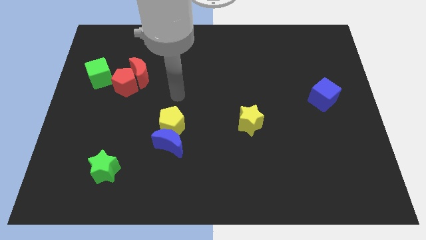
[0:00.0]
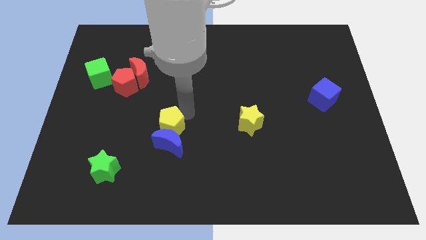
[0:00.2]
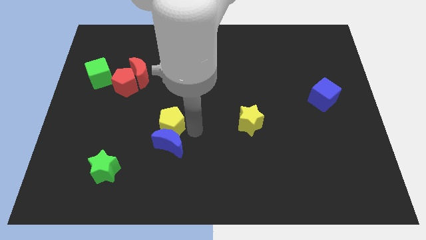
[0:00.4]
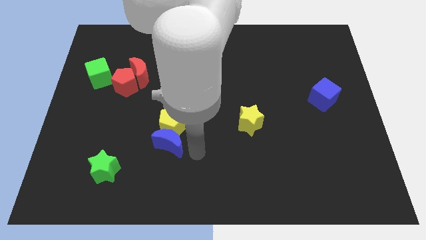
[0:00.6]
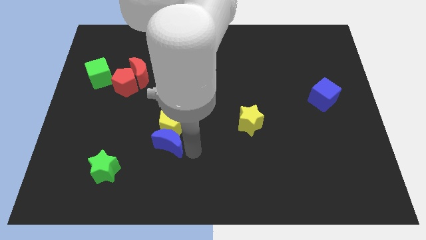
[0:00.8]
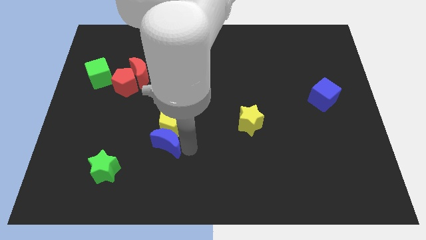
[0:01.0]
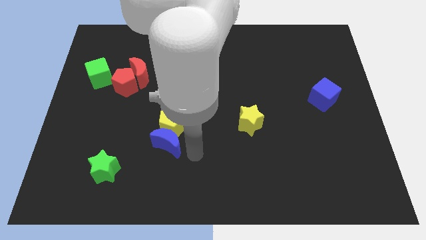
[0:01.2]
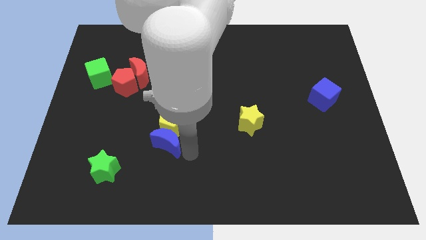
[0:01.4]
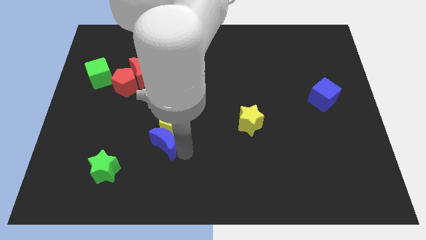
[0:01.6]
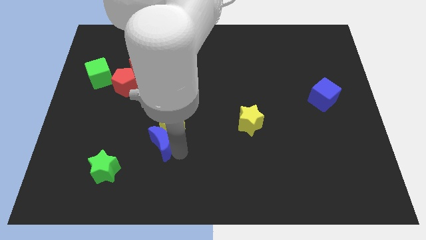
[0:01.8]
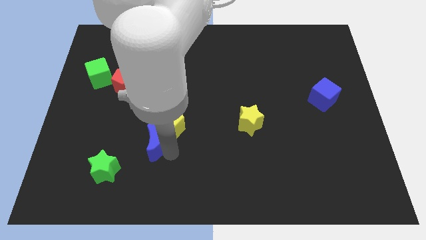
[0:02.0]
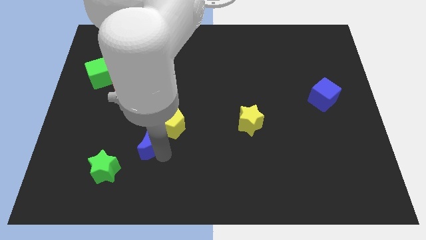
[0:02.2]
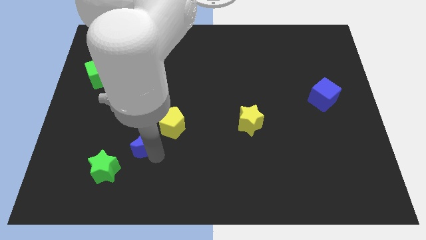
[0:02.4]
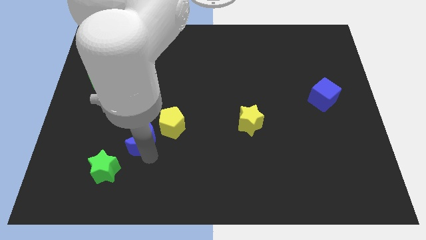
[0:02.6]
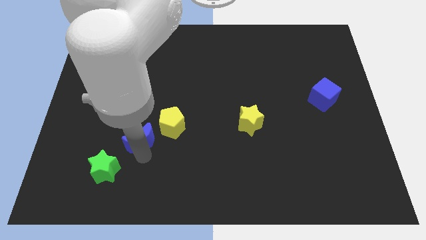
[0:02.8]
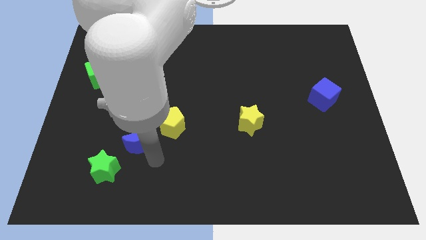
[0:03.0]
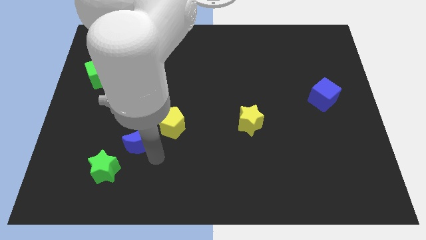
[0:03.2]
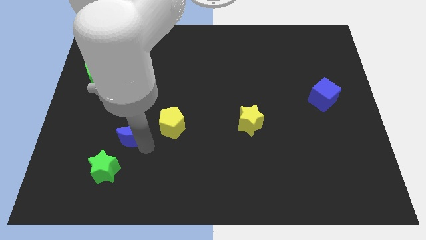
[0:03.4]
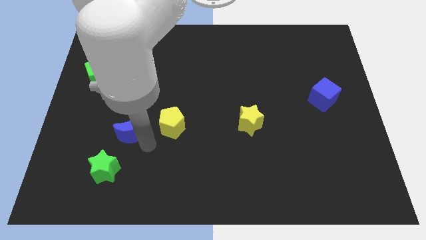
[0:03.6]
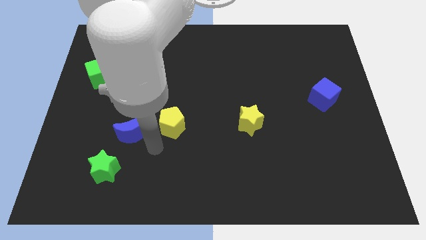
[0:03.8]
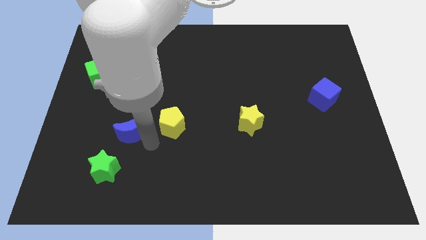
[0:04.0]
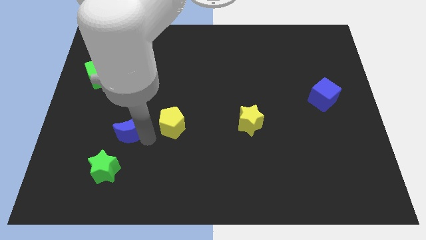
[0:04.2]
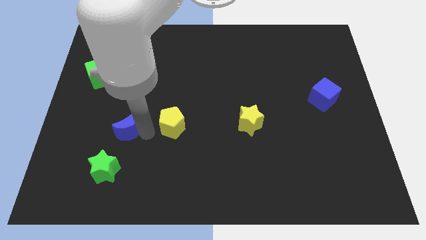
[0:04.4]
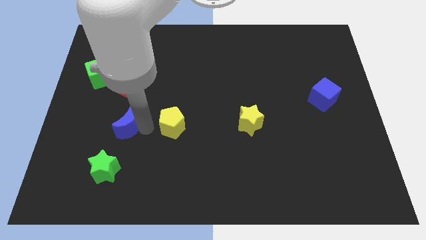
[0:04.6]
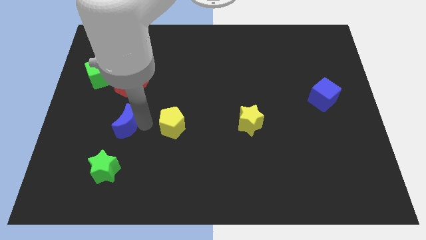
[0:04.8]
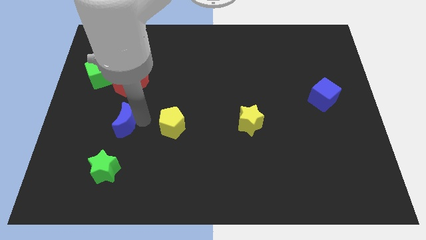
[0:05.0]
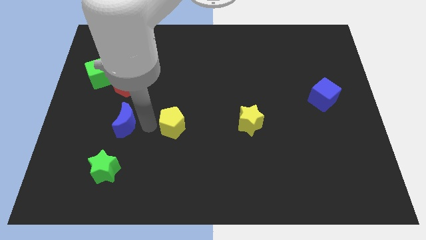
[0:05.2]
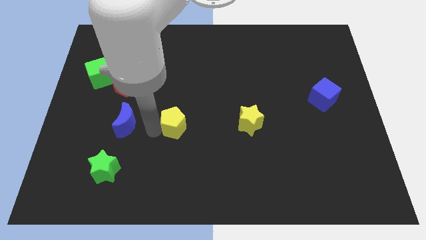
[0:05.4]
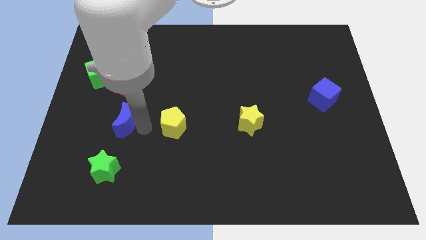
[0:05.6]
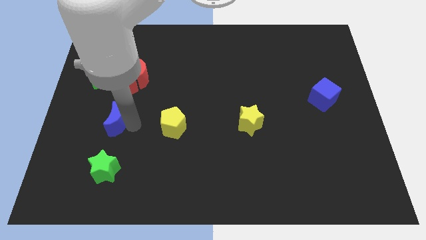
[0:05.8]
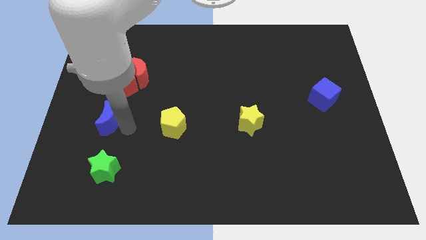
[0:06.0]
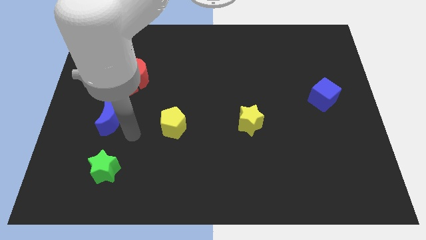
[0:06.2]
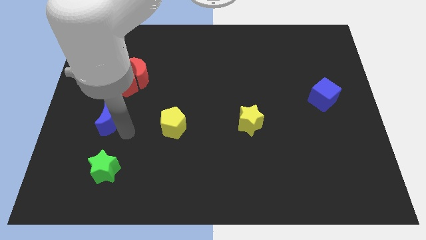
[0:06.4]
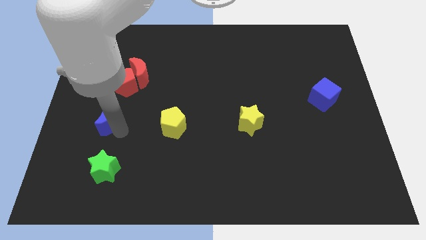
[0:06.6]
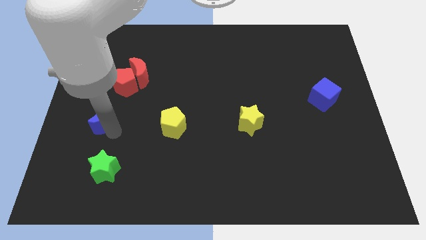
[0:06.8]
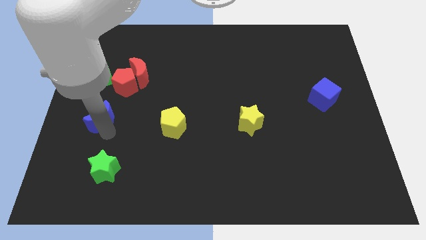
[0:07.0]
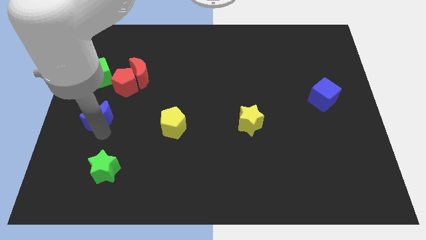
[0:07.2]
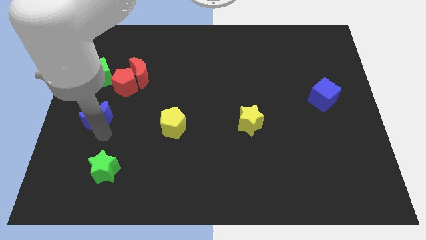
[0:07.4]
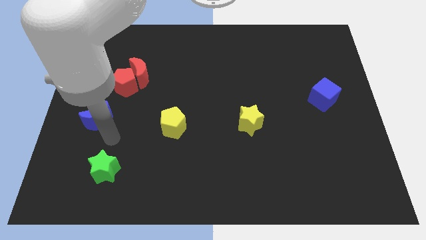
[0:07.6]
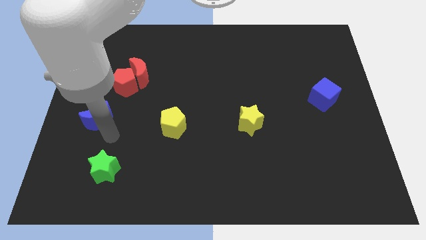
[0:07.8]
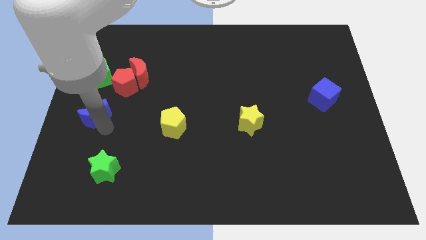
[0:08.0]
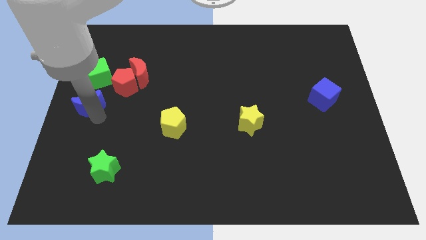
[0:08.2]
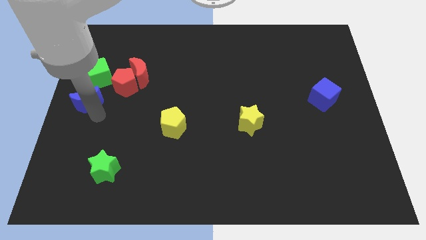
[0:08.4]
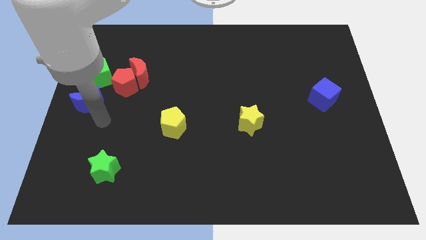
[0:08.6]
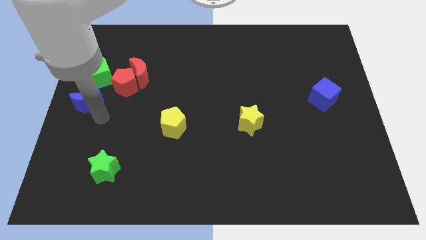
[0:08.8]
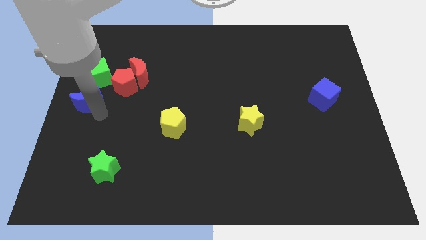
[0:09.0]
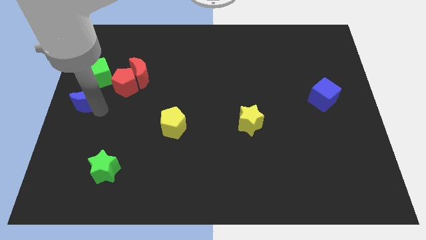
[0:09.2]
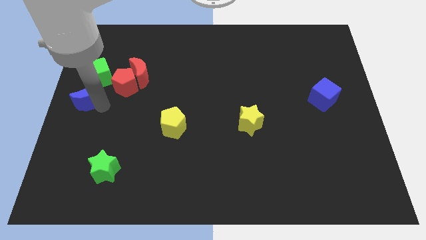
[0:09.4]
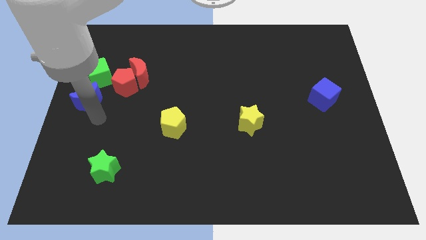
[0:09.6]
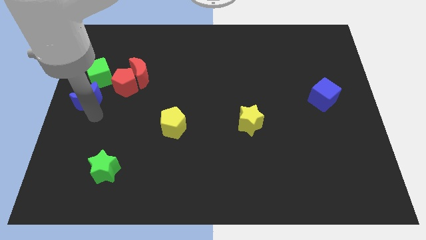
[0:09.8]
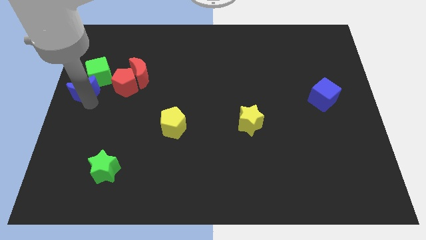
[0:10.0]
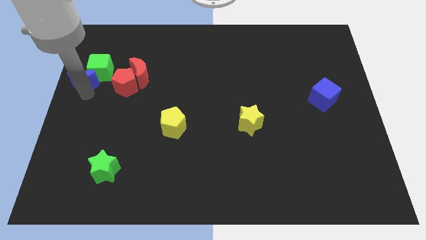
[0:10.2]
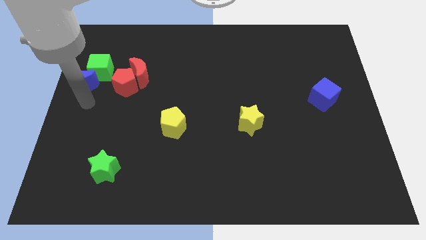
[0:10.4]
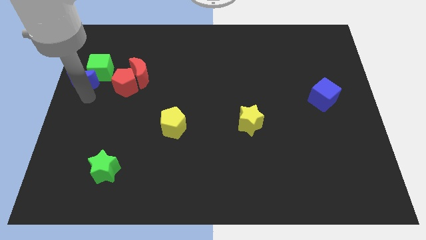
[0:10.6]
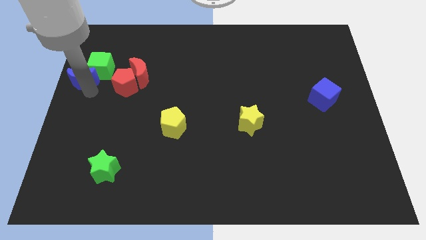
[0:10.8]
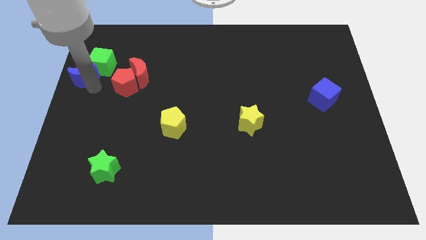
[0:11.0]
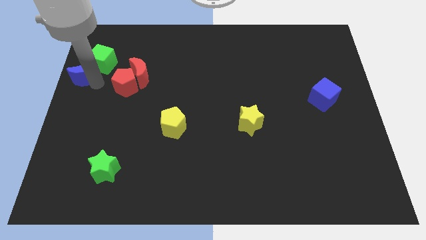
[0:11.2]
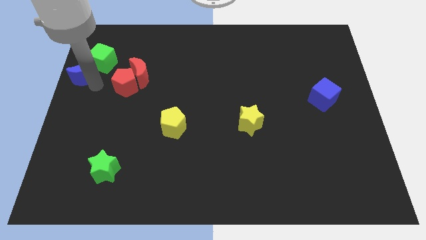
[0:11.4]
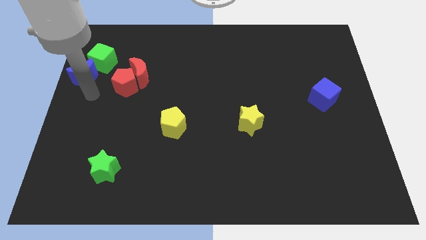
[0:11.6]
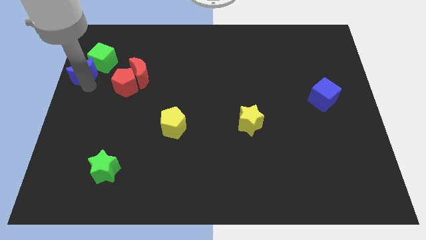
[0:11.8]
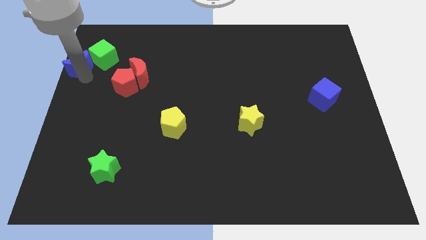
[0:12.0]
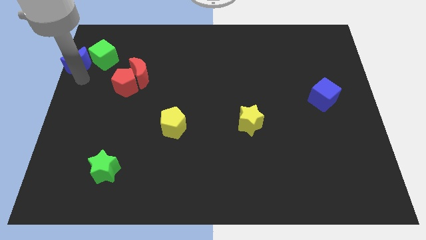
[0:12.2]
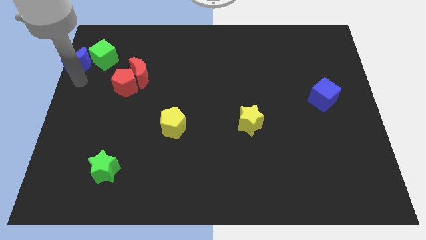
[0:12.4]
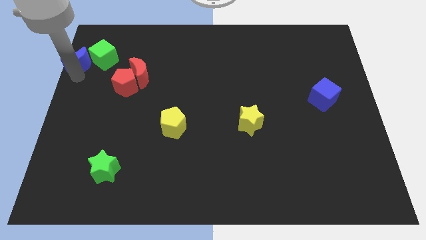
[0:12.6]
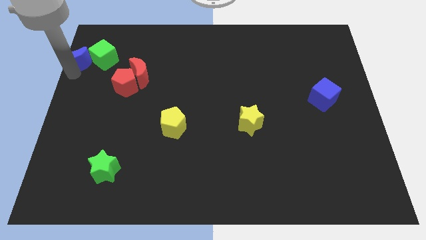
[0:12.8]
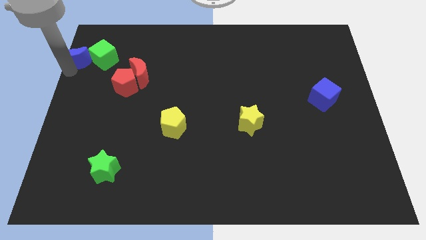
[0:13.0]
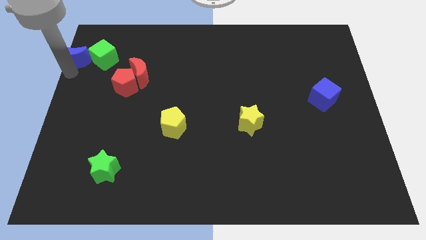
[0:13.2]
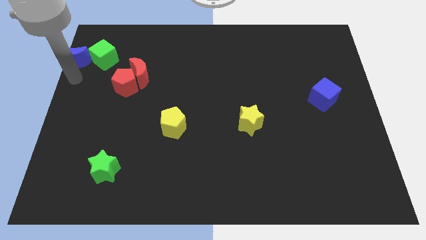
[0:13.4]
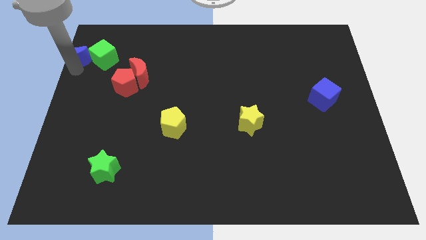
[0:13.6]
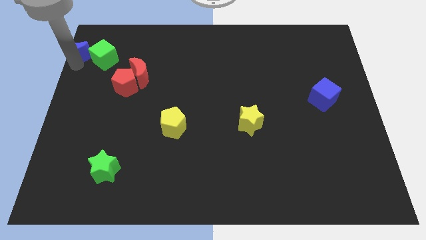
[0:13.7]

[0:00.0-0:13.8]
slide the blue moon to the top left corner
